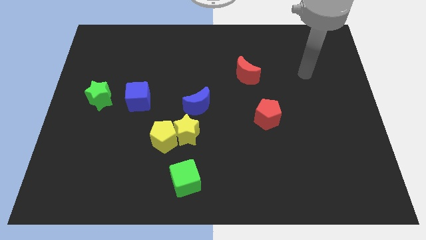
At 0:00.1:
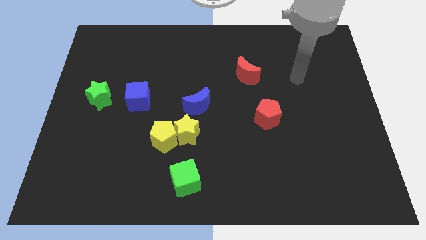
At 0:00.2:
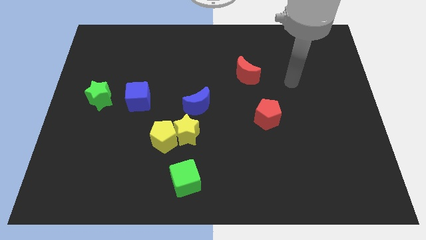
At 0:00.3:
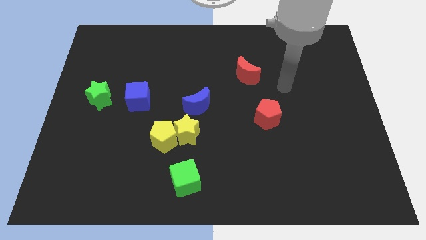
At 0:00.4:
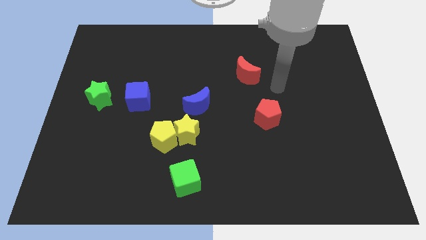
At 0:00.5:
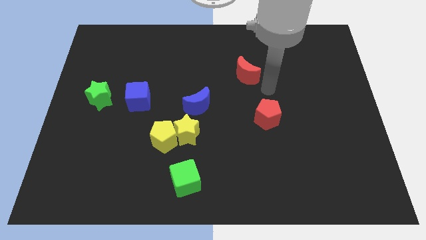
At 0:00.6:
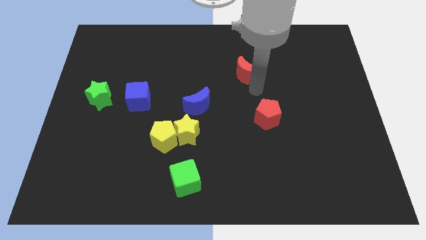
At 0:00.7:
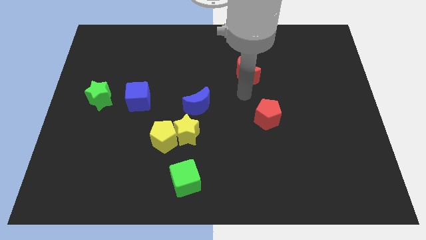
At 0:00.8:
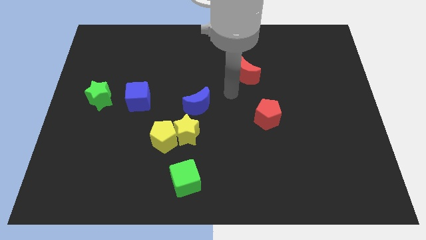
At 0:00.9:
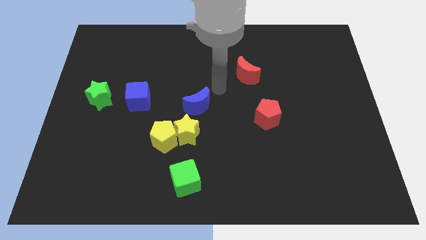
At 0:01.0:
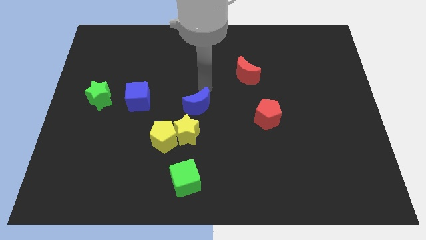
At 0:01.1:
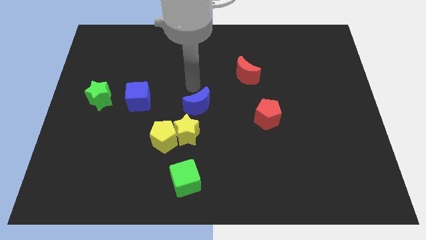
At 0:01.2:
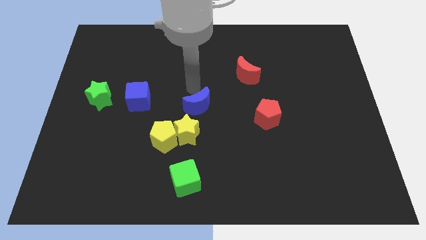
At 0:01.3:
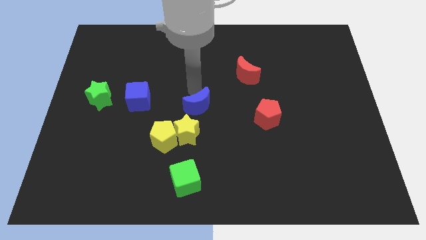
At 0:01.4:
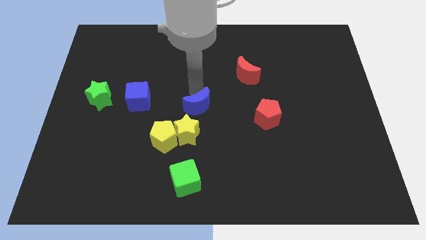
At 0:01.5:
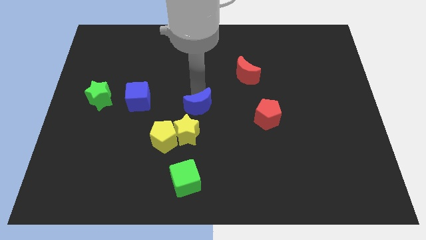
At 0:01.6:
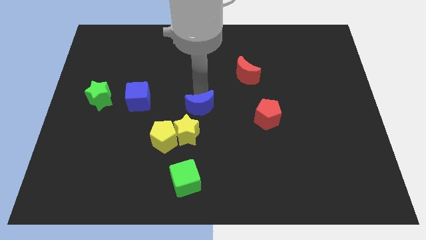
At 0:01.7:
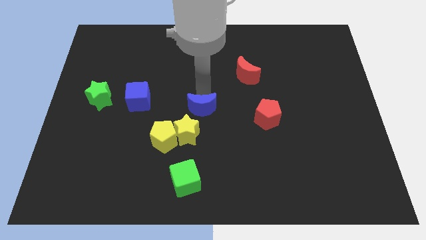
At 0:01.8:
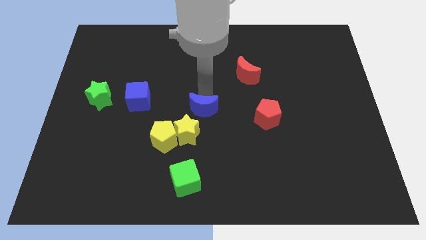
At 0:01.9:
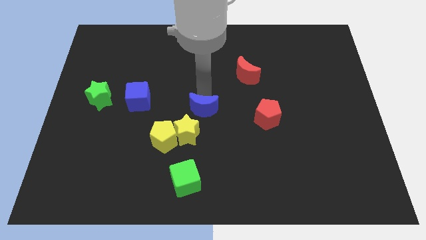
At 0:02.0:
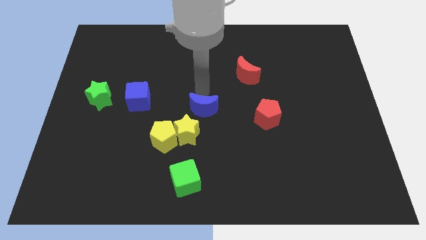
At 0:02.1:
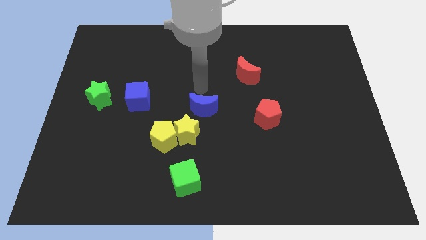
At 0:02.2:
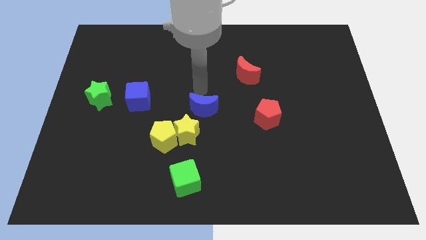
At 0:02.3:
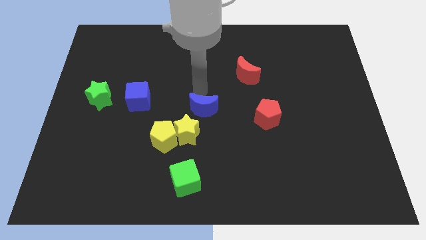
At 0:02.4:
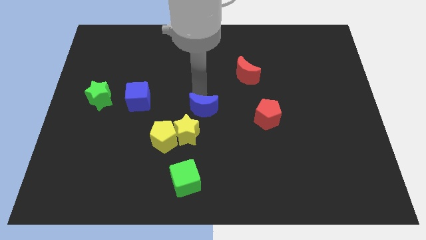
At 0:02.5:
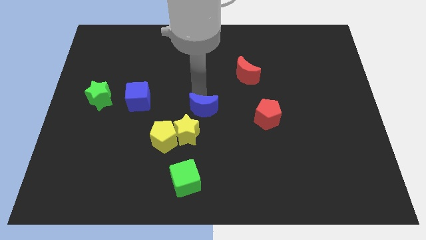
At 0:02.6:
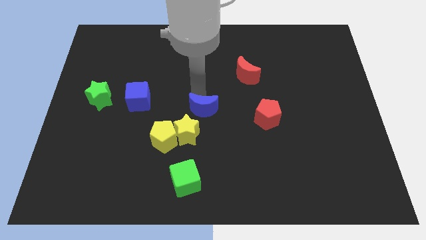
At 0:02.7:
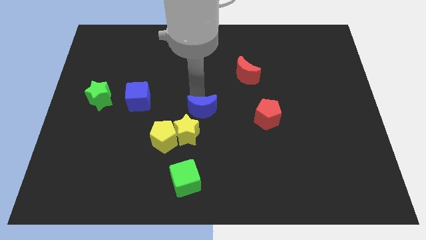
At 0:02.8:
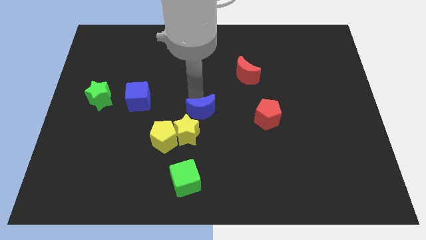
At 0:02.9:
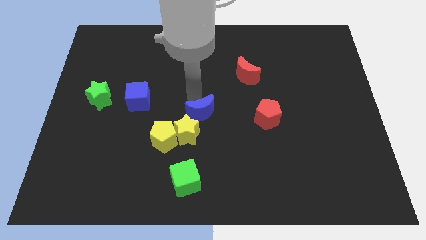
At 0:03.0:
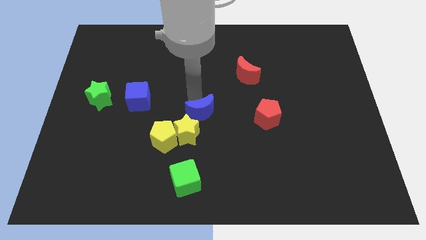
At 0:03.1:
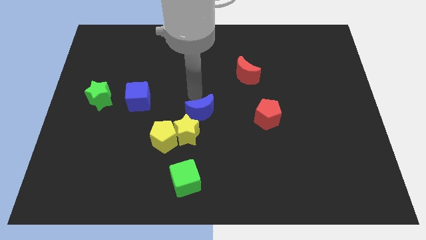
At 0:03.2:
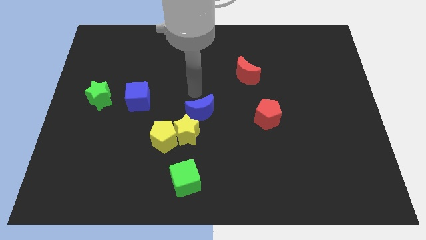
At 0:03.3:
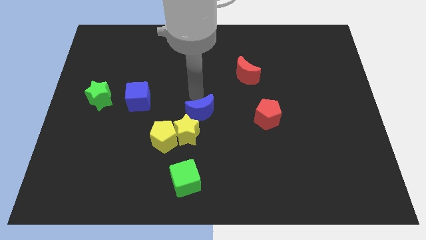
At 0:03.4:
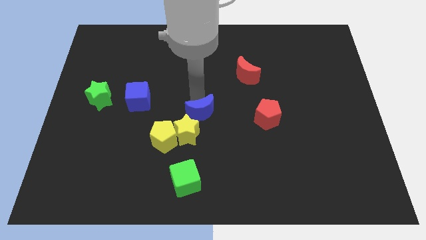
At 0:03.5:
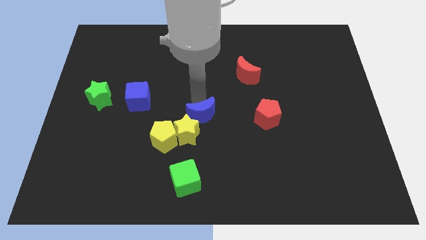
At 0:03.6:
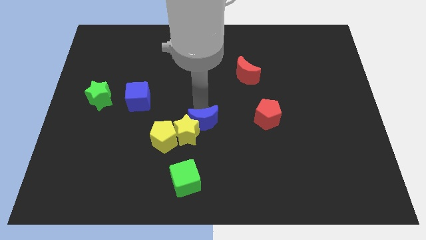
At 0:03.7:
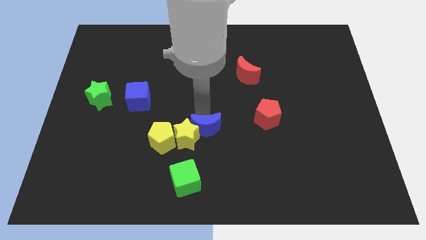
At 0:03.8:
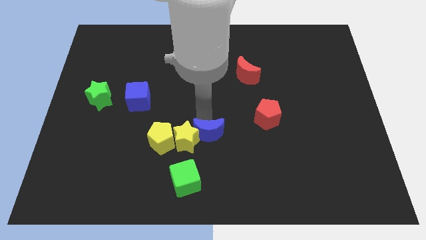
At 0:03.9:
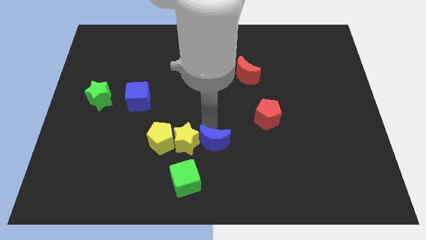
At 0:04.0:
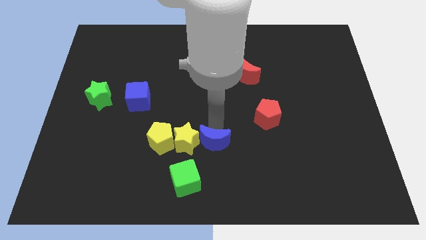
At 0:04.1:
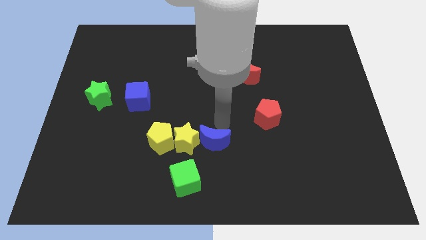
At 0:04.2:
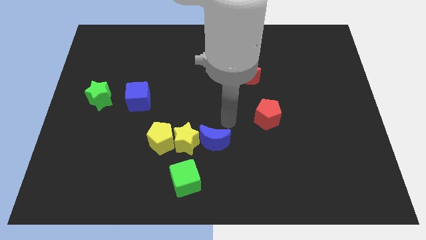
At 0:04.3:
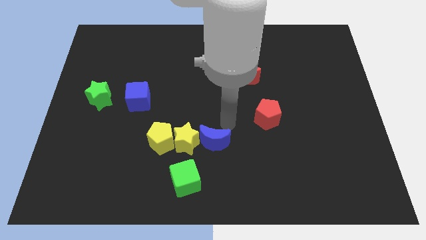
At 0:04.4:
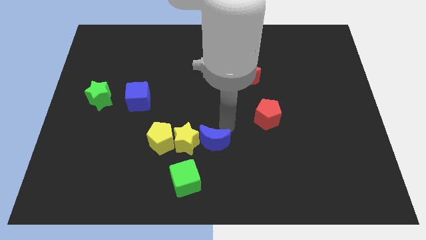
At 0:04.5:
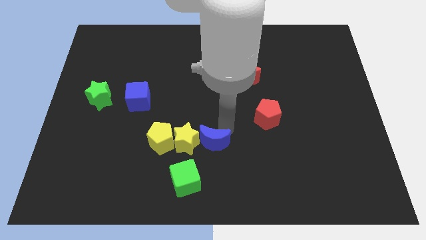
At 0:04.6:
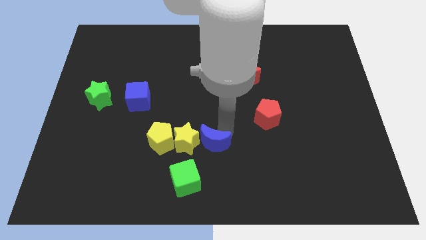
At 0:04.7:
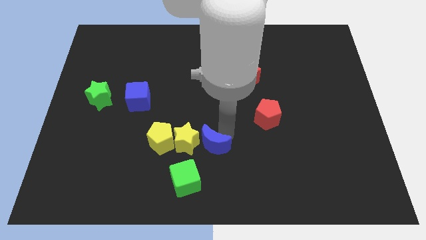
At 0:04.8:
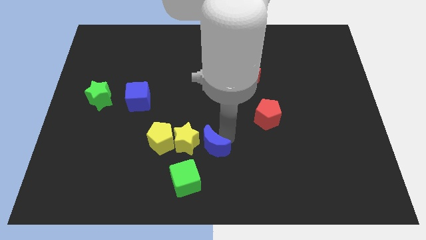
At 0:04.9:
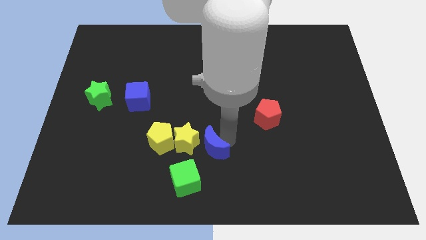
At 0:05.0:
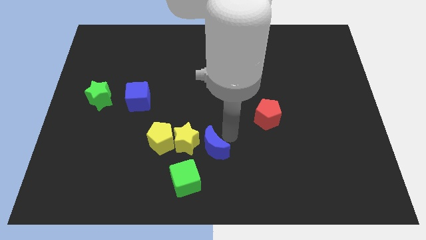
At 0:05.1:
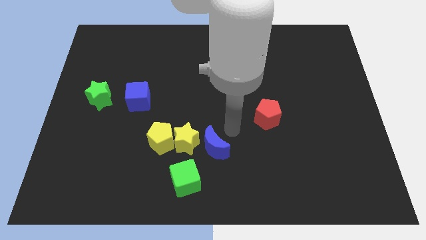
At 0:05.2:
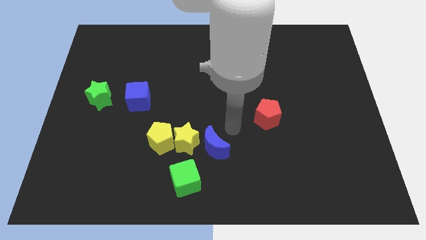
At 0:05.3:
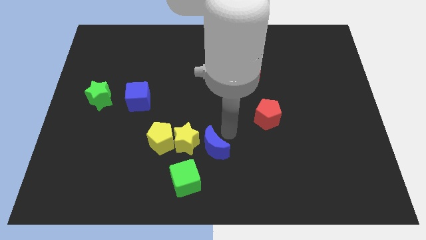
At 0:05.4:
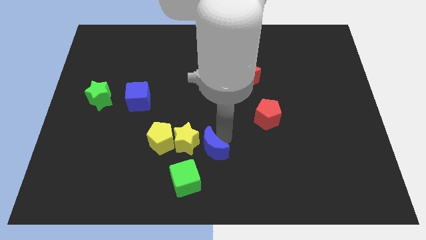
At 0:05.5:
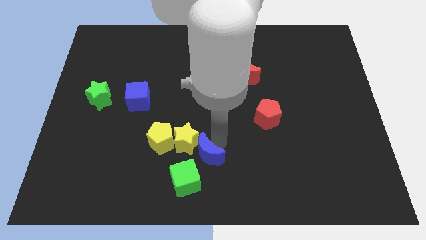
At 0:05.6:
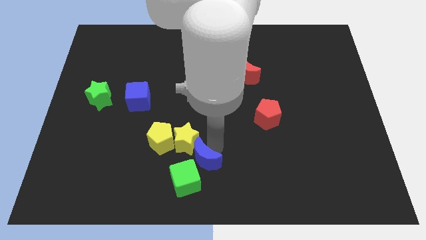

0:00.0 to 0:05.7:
slide the blue moon to the green cube

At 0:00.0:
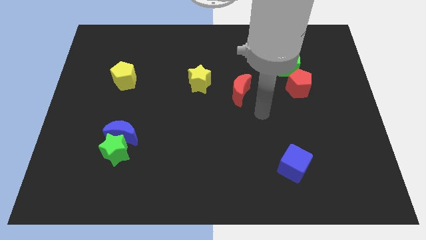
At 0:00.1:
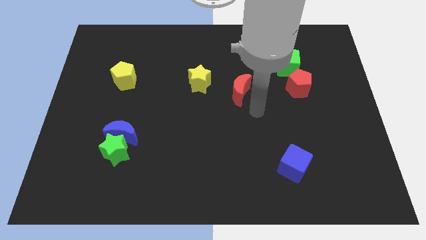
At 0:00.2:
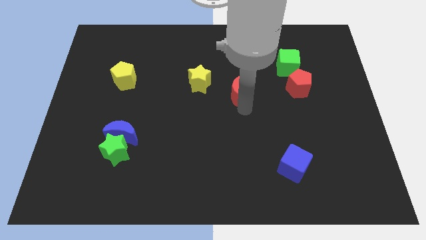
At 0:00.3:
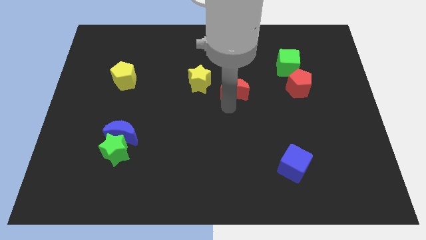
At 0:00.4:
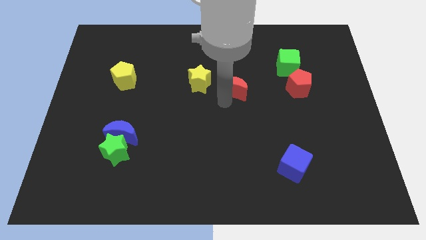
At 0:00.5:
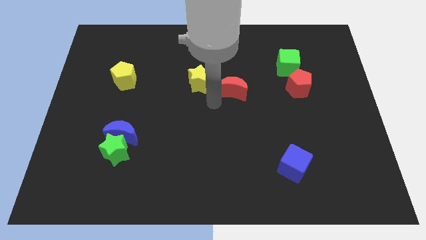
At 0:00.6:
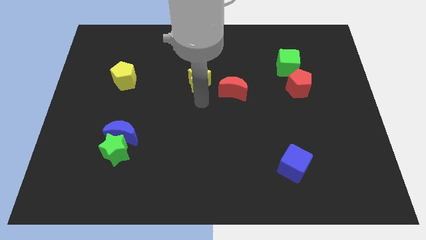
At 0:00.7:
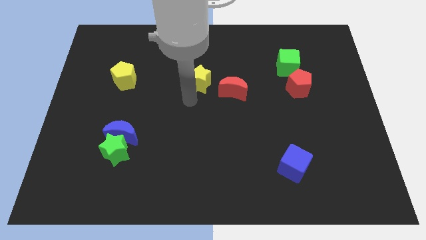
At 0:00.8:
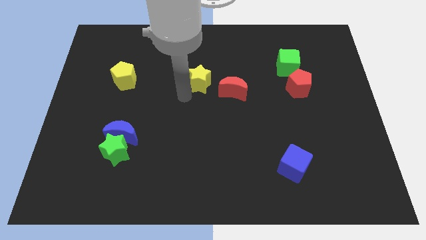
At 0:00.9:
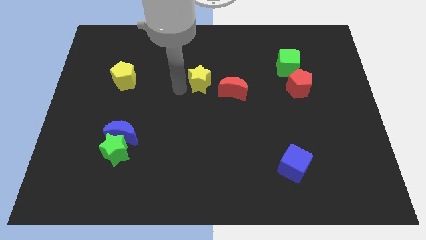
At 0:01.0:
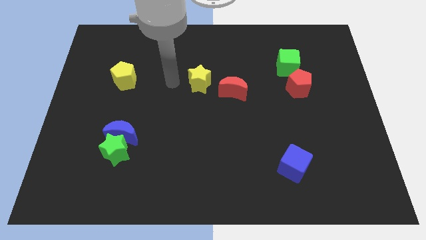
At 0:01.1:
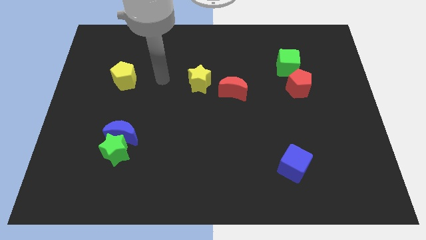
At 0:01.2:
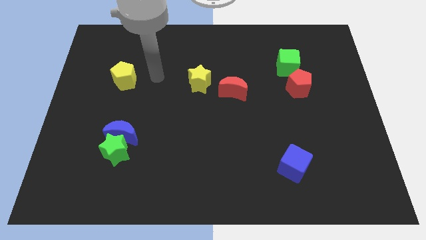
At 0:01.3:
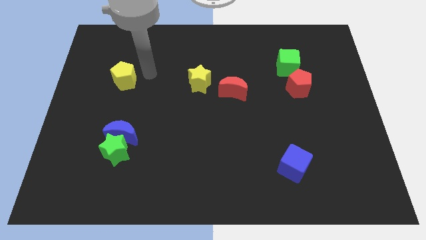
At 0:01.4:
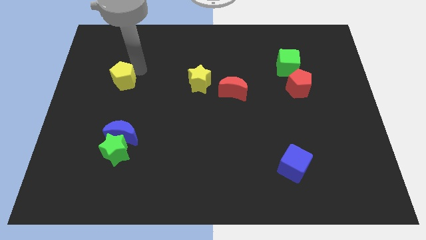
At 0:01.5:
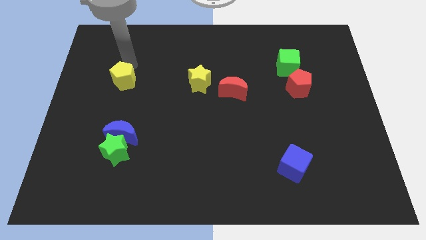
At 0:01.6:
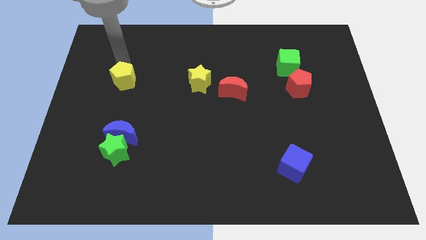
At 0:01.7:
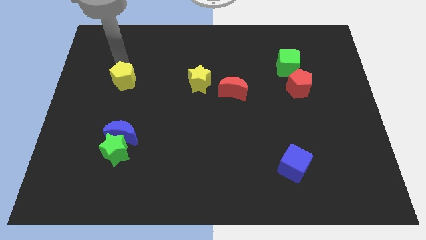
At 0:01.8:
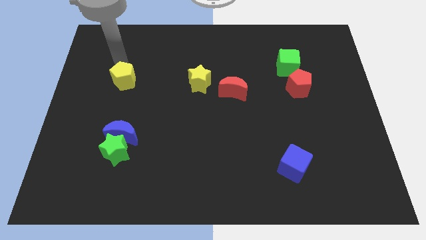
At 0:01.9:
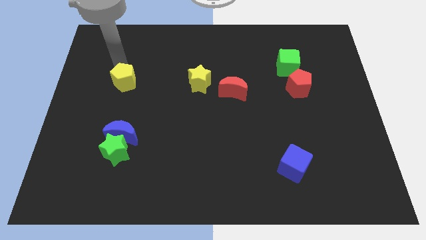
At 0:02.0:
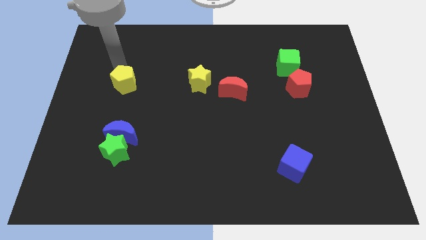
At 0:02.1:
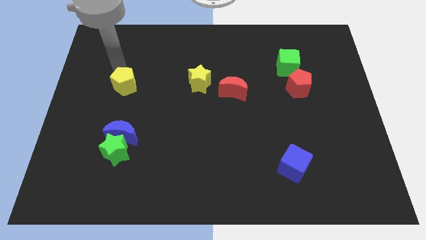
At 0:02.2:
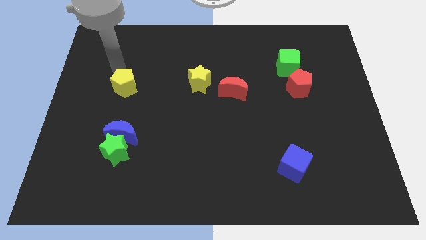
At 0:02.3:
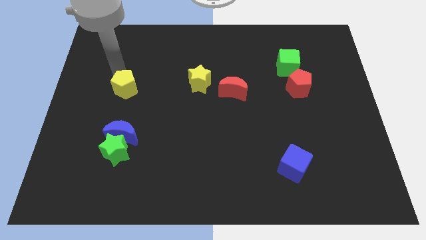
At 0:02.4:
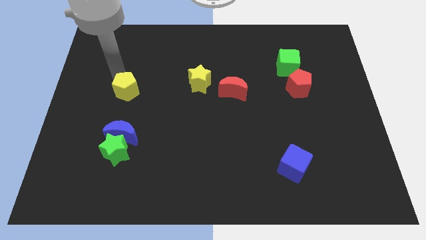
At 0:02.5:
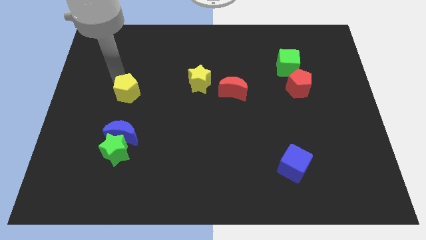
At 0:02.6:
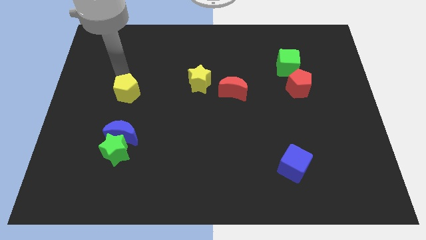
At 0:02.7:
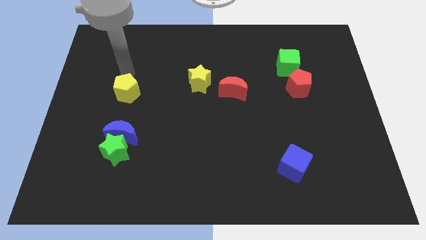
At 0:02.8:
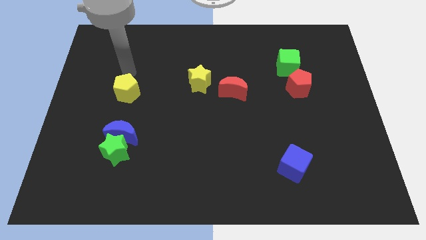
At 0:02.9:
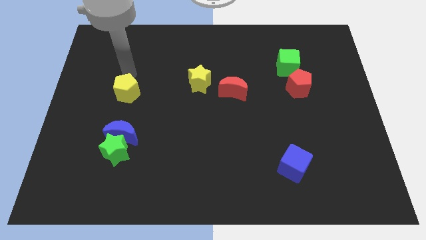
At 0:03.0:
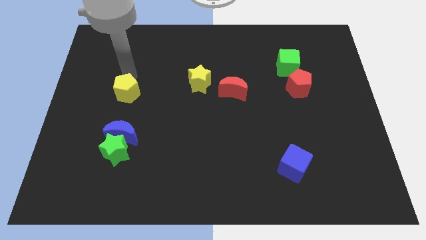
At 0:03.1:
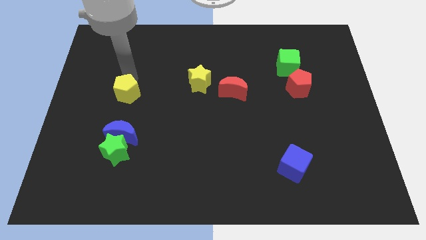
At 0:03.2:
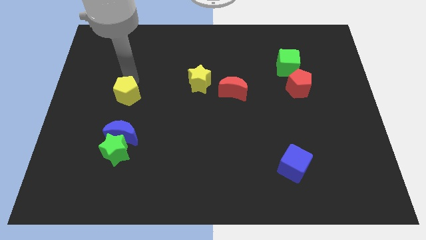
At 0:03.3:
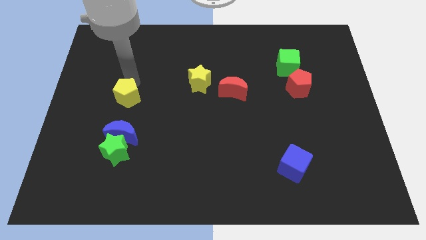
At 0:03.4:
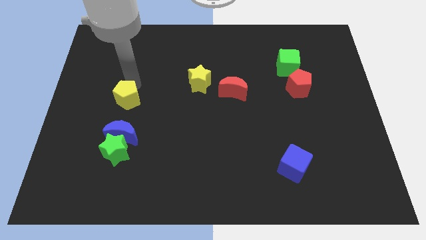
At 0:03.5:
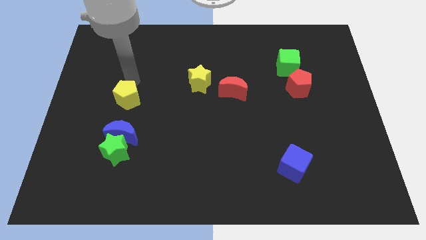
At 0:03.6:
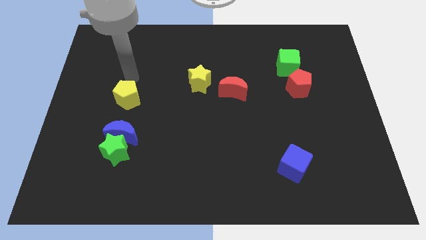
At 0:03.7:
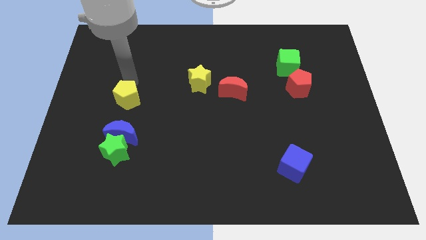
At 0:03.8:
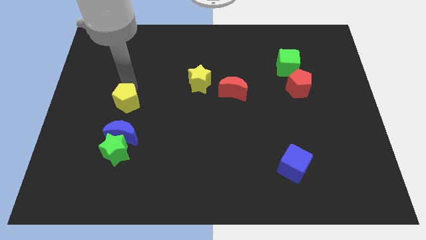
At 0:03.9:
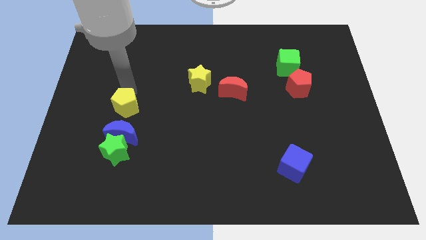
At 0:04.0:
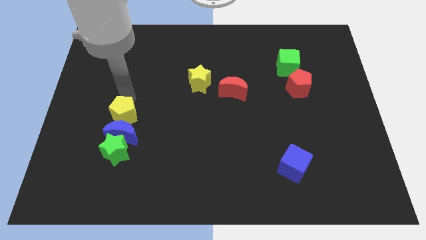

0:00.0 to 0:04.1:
slide the yellow pentagon towards the blue moon
